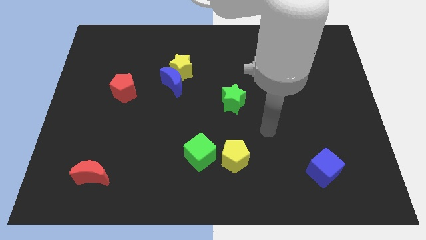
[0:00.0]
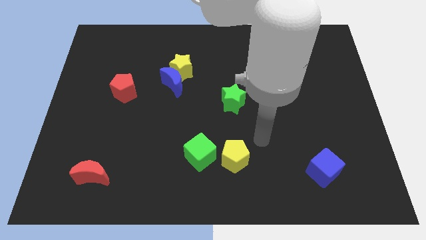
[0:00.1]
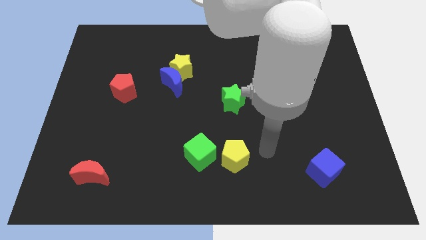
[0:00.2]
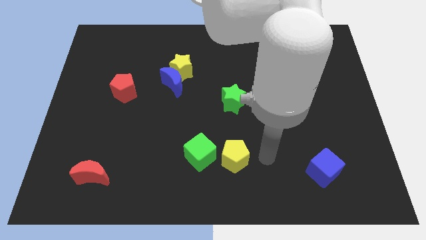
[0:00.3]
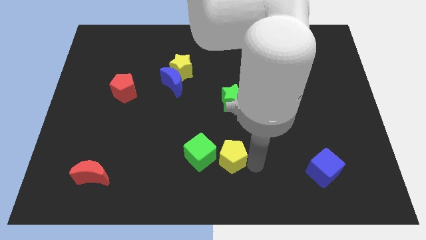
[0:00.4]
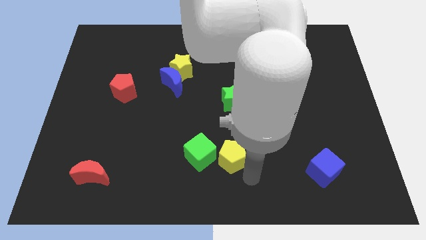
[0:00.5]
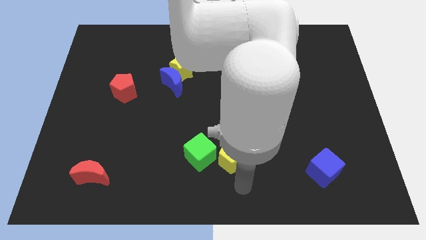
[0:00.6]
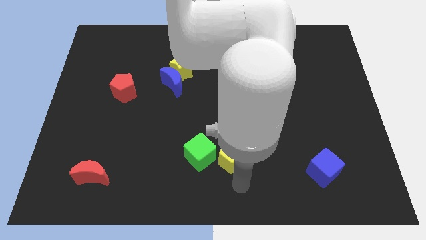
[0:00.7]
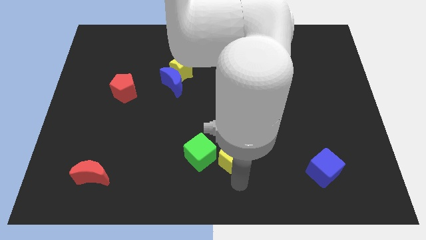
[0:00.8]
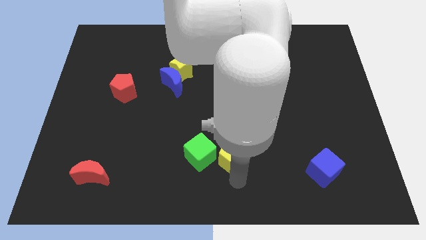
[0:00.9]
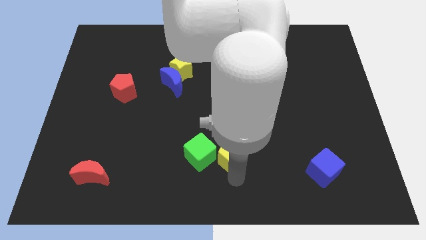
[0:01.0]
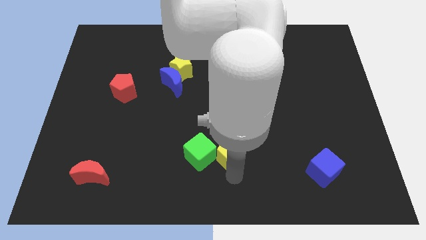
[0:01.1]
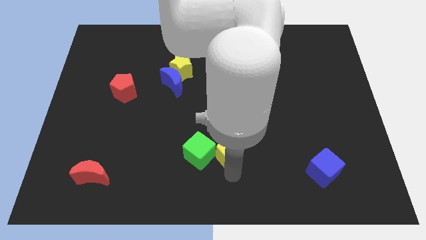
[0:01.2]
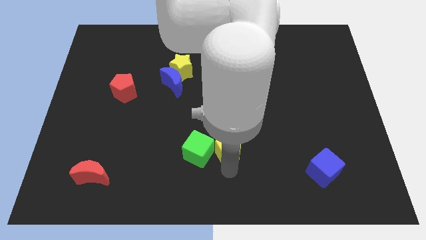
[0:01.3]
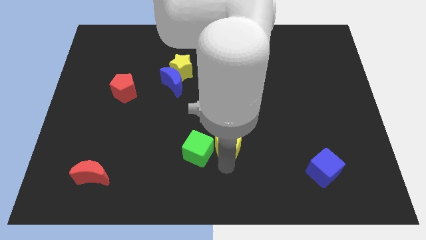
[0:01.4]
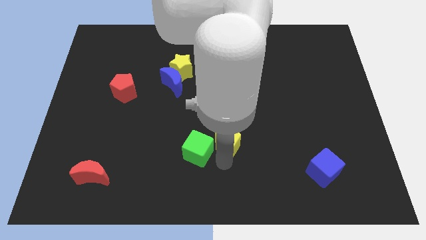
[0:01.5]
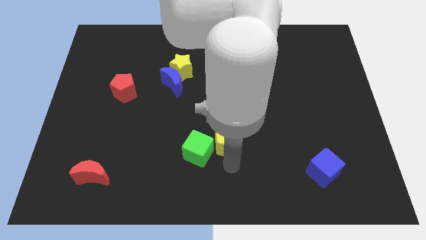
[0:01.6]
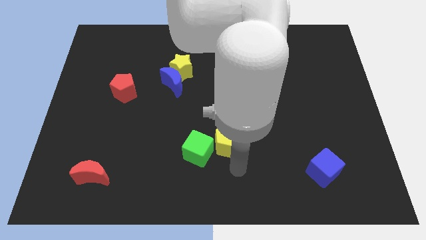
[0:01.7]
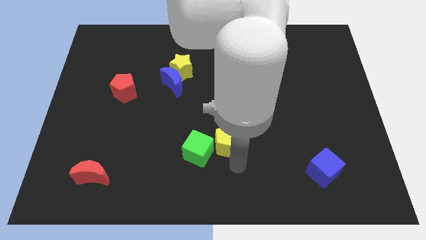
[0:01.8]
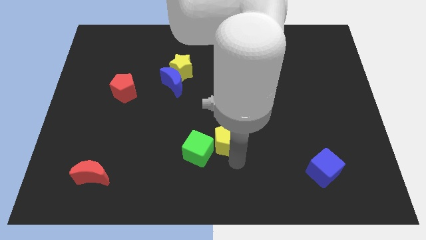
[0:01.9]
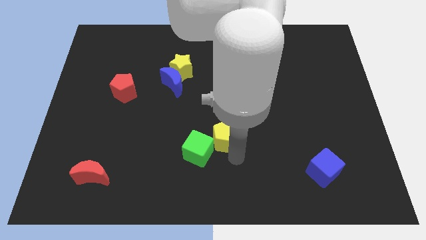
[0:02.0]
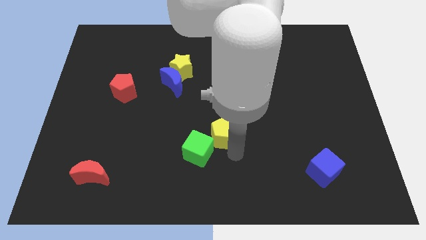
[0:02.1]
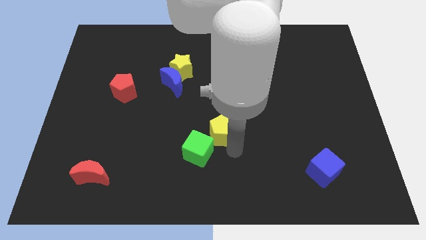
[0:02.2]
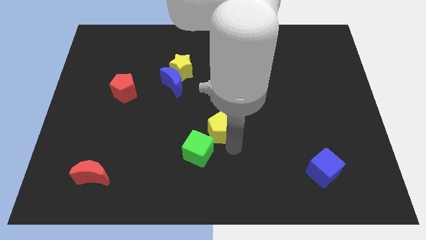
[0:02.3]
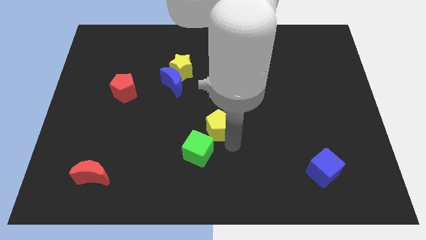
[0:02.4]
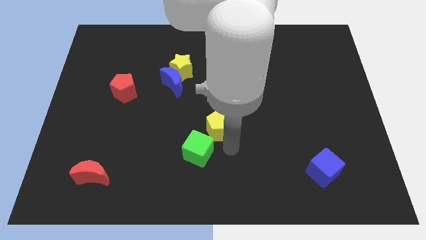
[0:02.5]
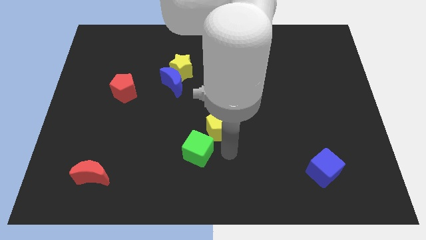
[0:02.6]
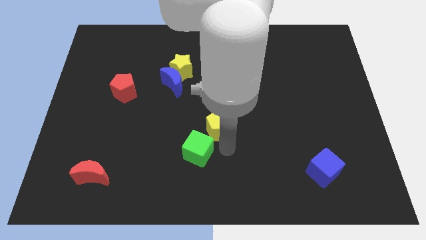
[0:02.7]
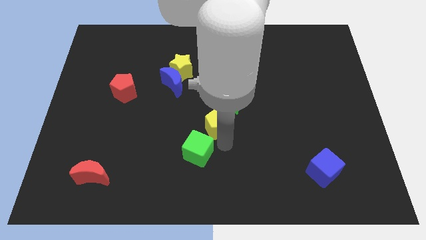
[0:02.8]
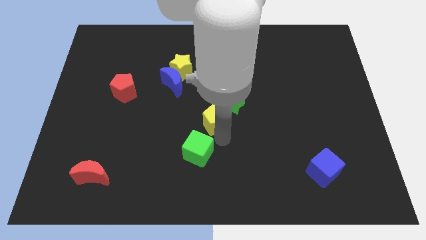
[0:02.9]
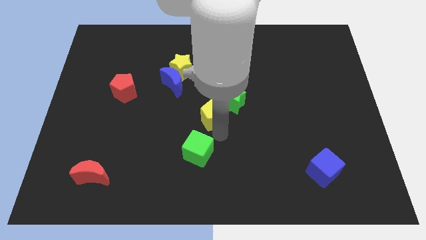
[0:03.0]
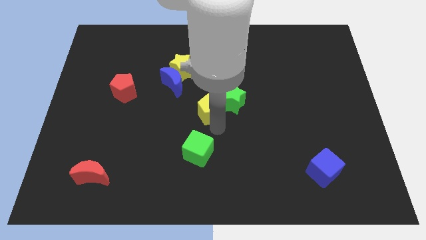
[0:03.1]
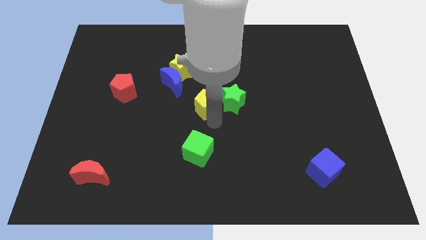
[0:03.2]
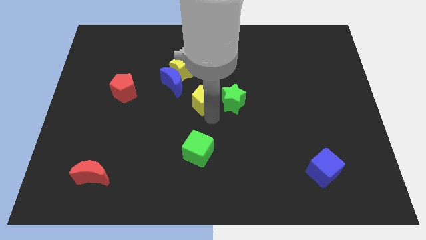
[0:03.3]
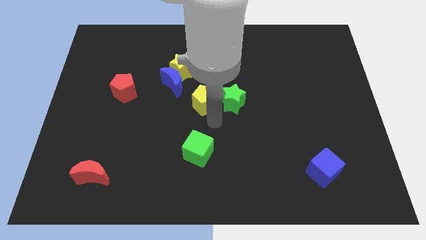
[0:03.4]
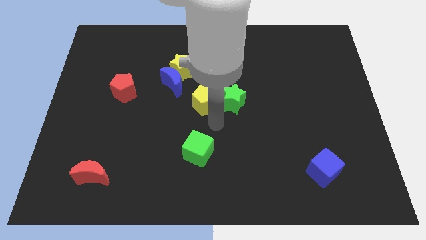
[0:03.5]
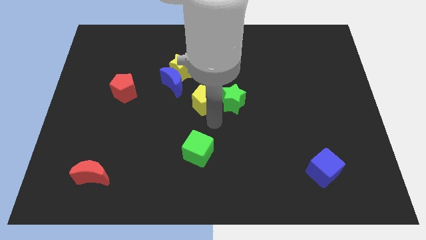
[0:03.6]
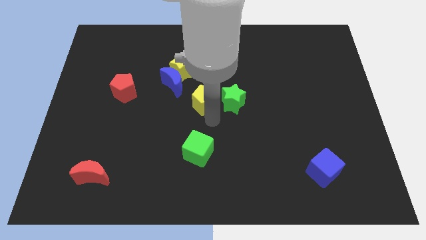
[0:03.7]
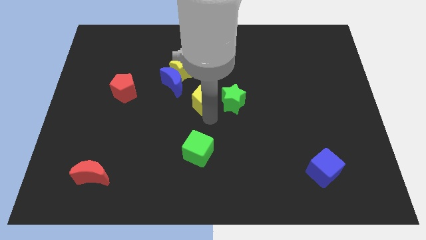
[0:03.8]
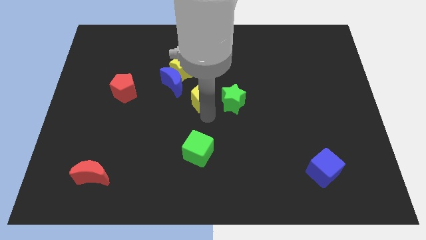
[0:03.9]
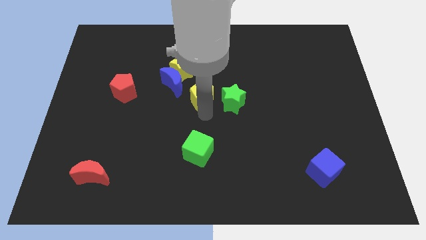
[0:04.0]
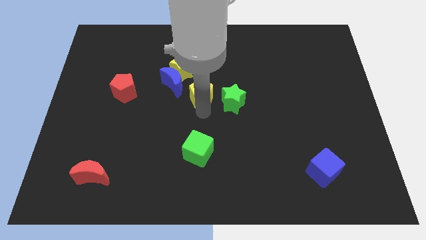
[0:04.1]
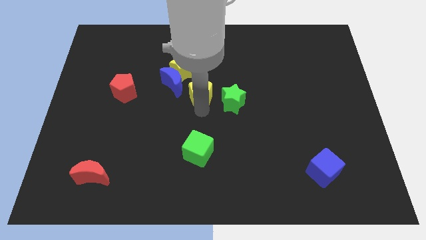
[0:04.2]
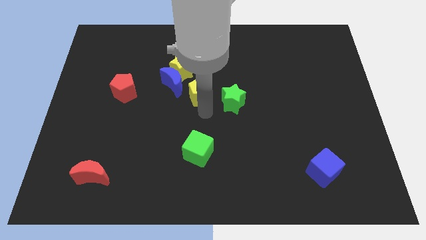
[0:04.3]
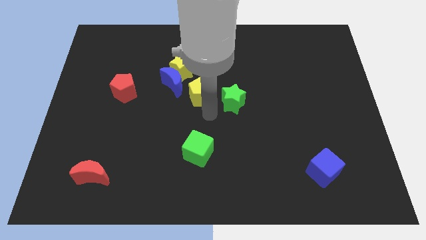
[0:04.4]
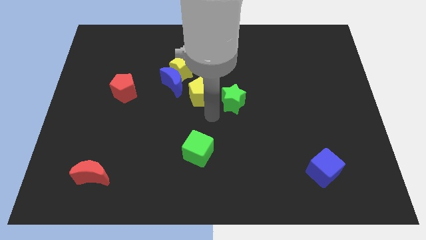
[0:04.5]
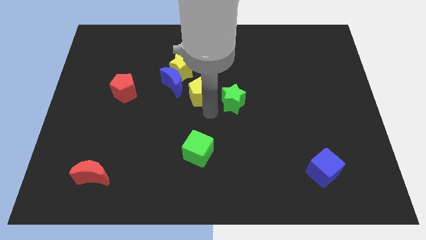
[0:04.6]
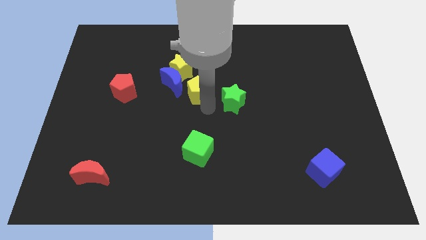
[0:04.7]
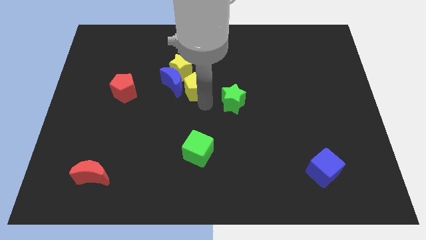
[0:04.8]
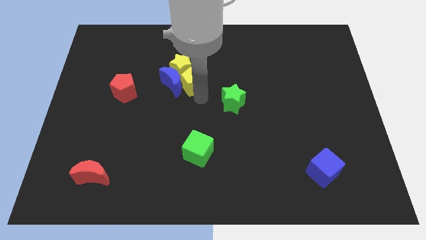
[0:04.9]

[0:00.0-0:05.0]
slide the yellow pentagon close to the yellow star

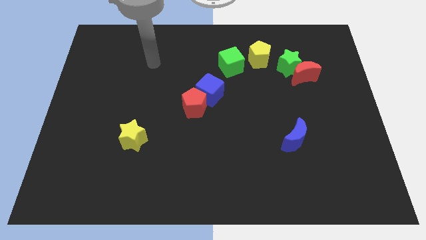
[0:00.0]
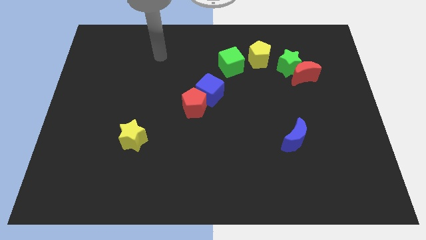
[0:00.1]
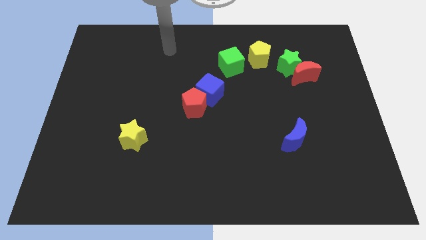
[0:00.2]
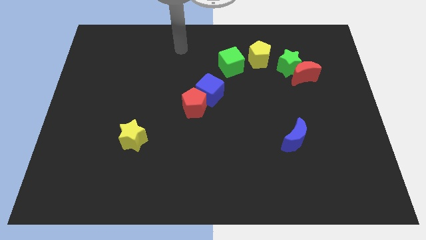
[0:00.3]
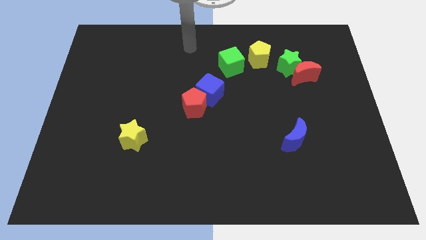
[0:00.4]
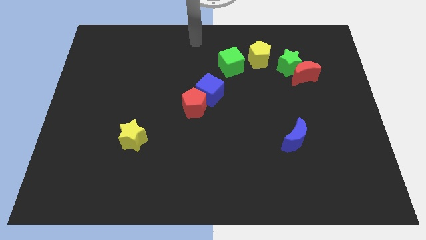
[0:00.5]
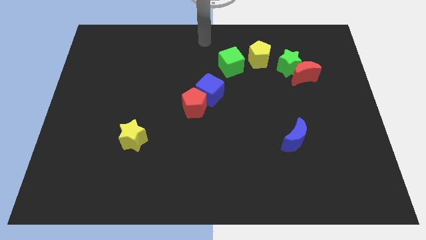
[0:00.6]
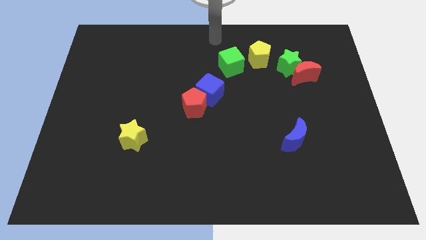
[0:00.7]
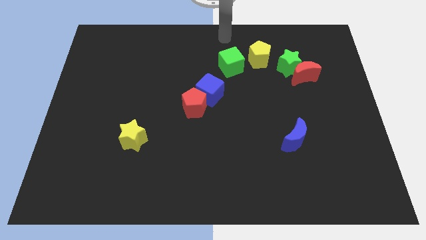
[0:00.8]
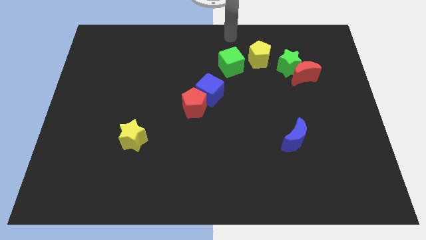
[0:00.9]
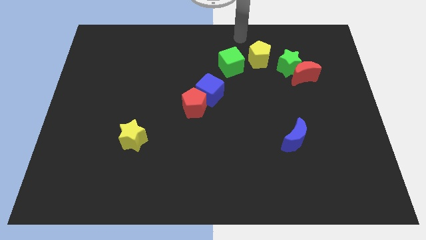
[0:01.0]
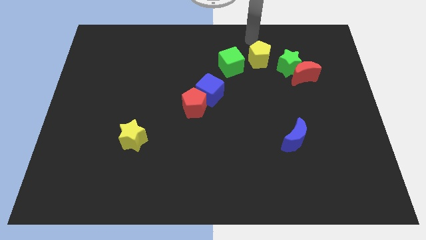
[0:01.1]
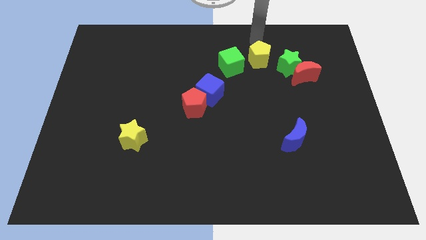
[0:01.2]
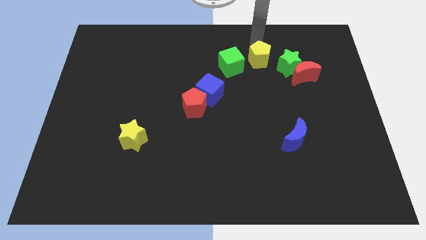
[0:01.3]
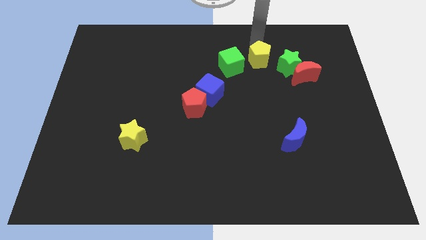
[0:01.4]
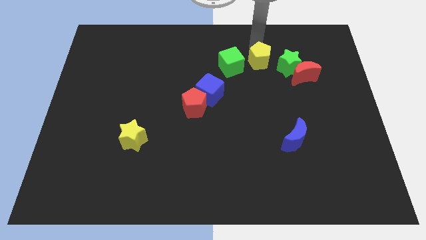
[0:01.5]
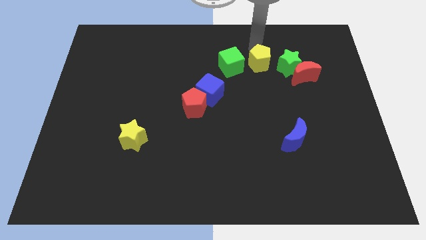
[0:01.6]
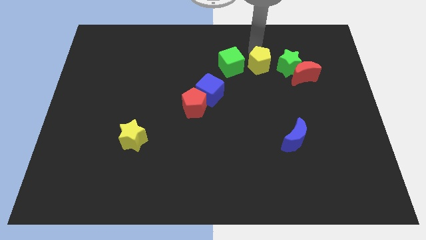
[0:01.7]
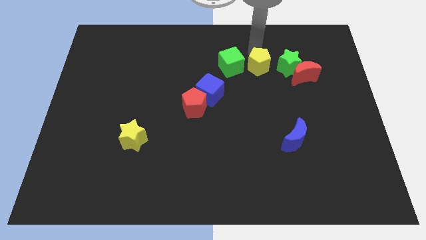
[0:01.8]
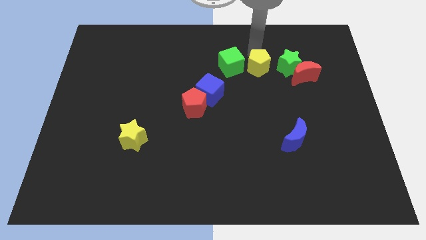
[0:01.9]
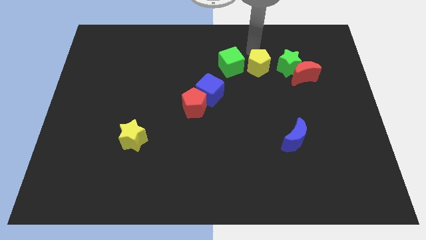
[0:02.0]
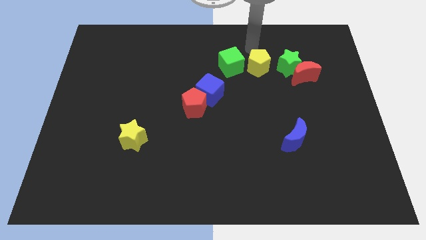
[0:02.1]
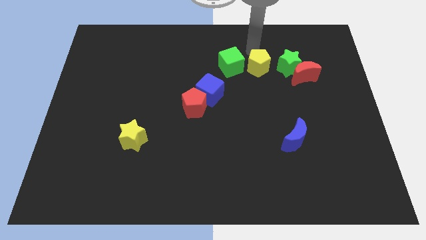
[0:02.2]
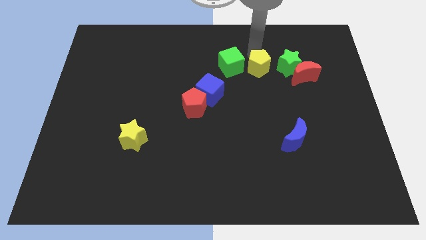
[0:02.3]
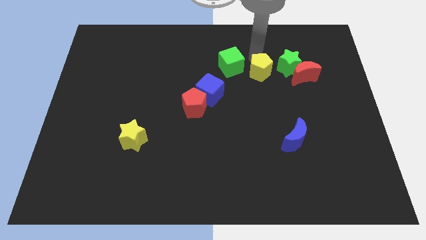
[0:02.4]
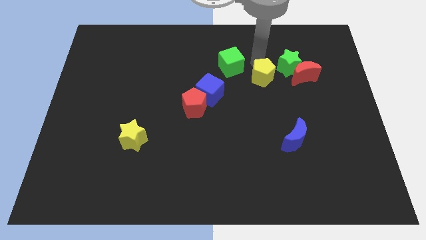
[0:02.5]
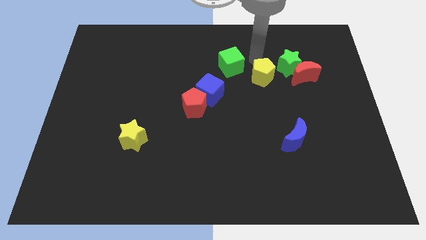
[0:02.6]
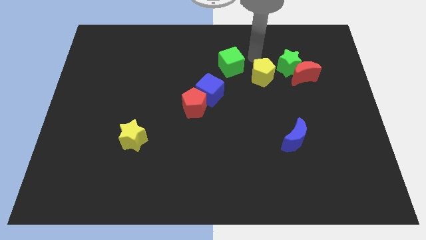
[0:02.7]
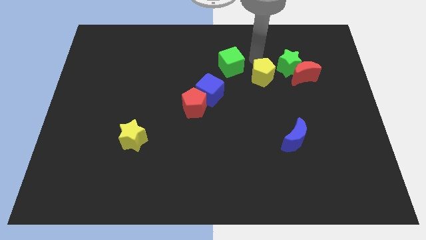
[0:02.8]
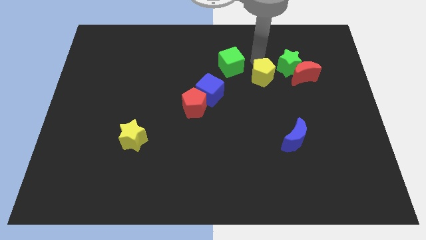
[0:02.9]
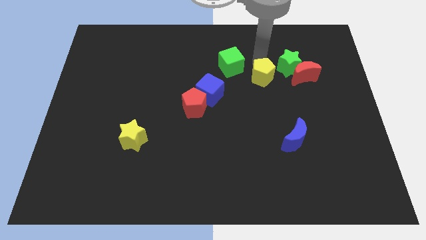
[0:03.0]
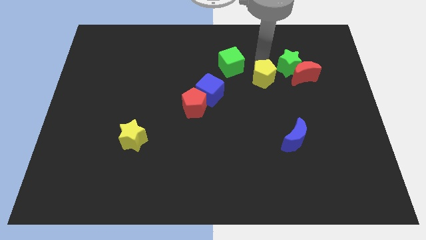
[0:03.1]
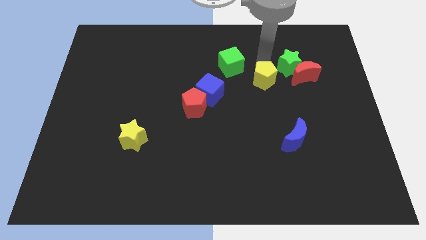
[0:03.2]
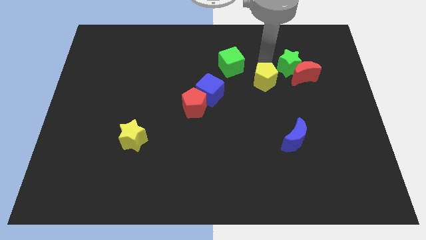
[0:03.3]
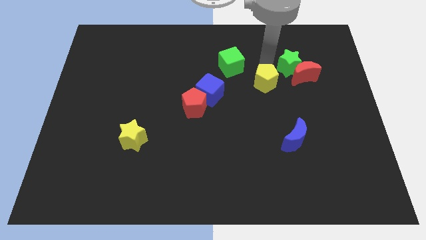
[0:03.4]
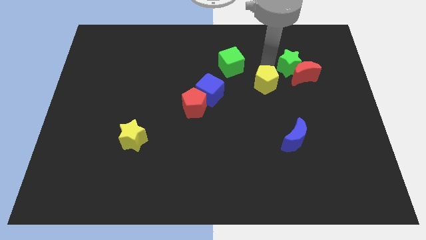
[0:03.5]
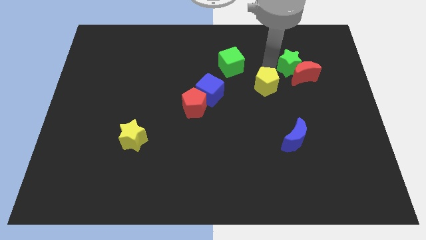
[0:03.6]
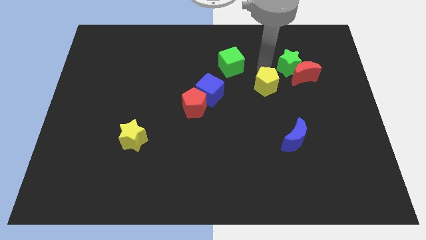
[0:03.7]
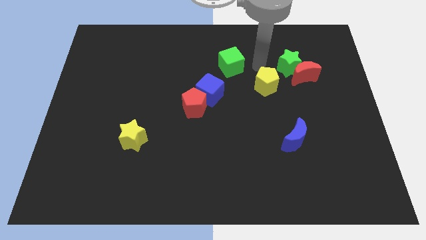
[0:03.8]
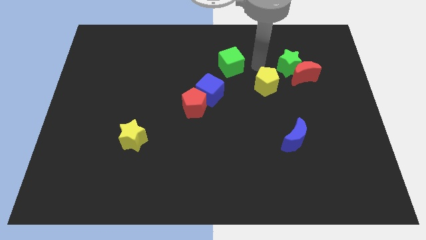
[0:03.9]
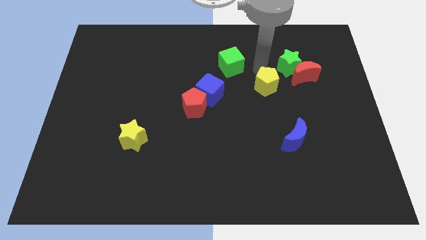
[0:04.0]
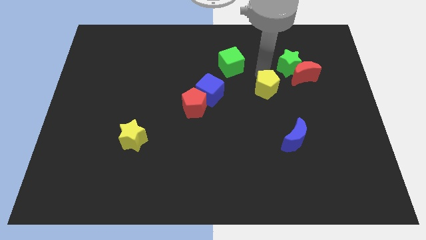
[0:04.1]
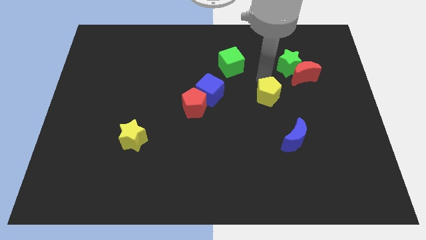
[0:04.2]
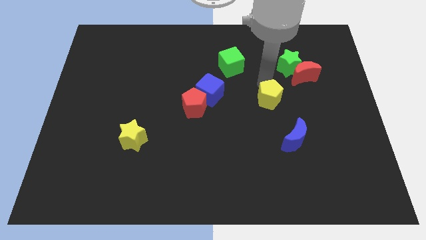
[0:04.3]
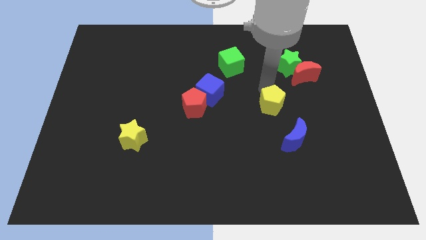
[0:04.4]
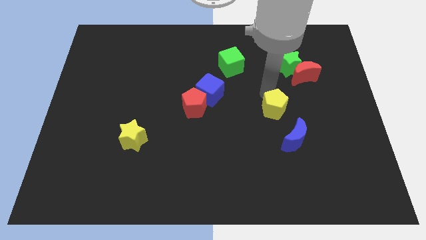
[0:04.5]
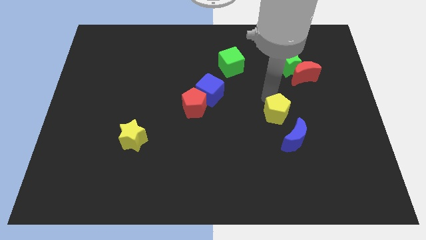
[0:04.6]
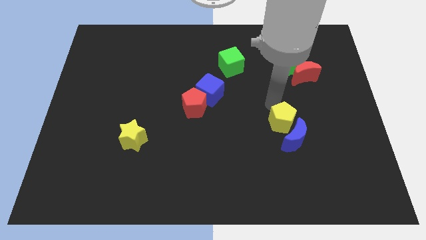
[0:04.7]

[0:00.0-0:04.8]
put the yellow pentagon next to the blue moon
